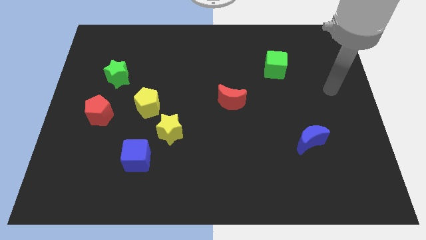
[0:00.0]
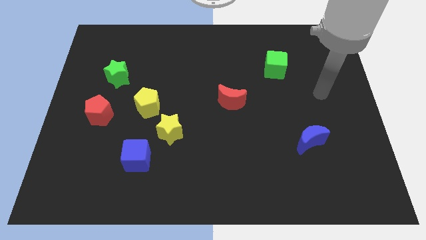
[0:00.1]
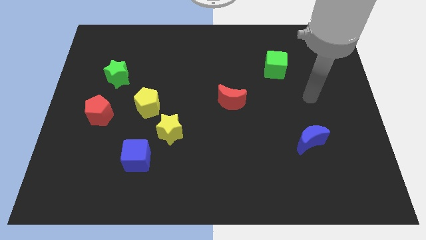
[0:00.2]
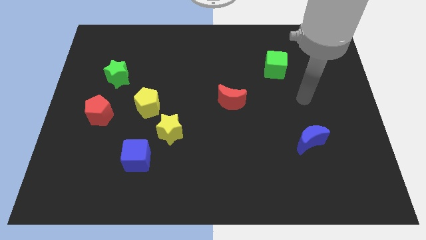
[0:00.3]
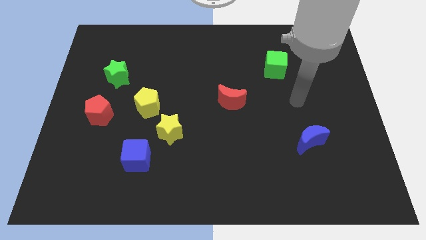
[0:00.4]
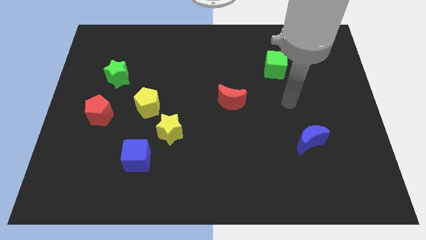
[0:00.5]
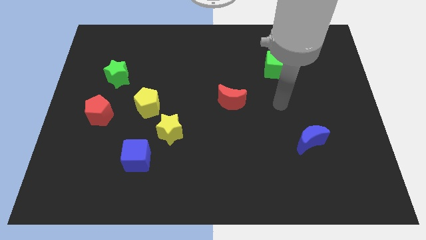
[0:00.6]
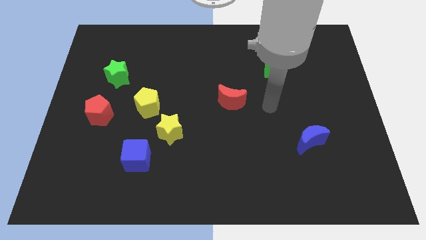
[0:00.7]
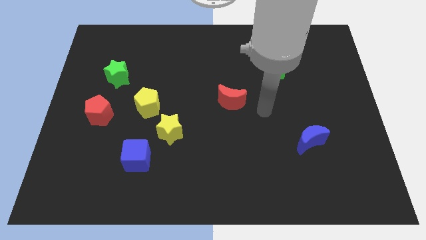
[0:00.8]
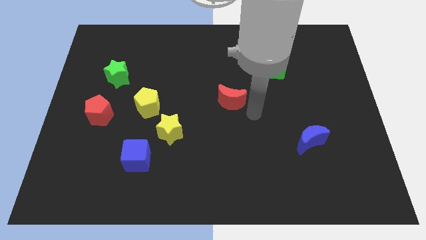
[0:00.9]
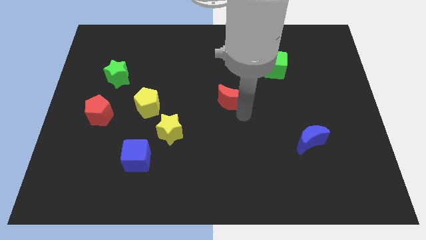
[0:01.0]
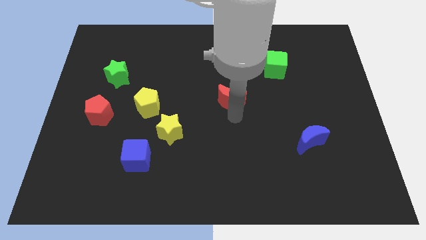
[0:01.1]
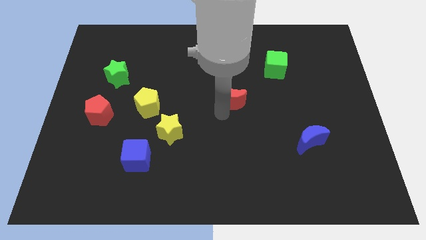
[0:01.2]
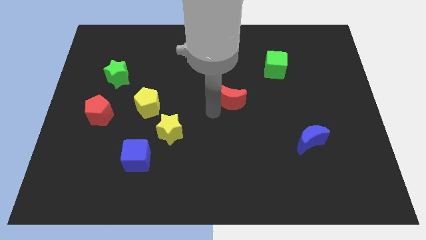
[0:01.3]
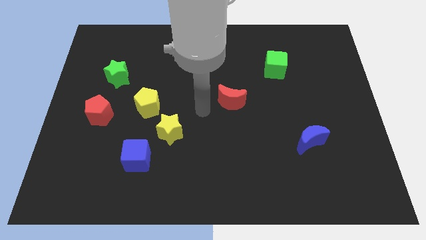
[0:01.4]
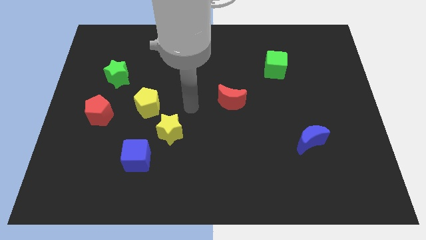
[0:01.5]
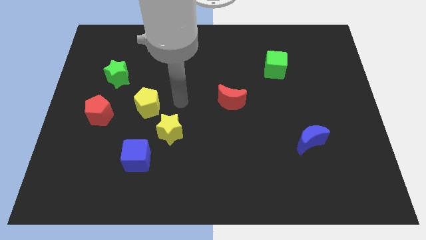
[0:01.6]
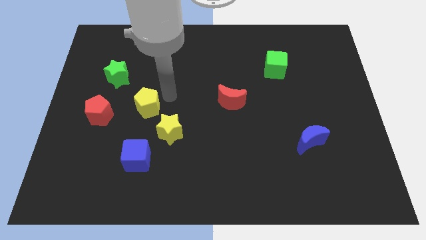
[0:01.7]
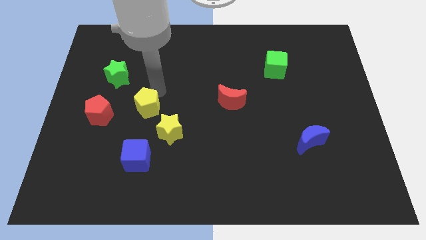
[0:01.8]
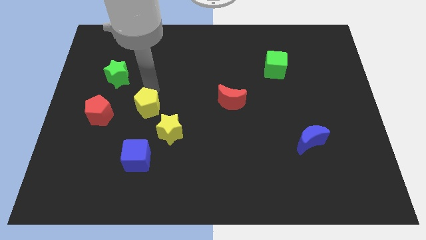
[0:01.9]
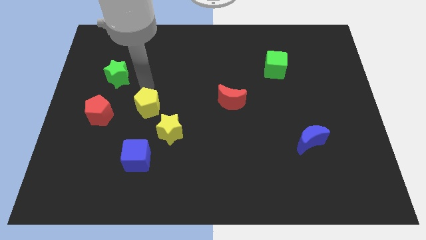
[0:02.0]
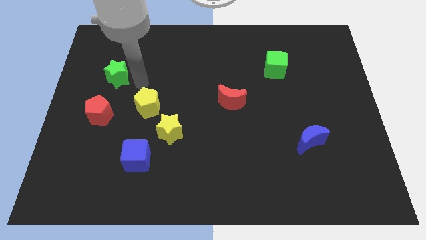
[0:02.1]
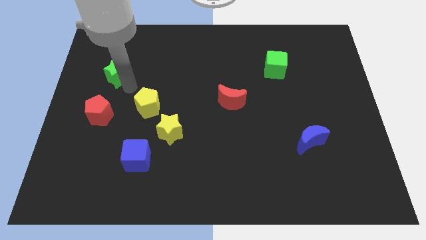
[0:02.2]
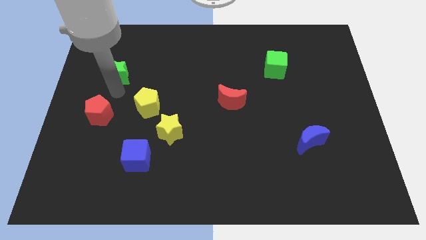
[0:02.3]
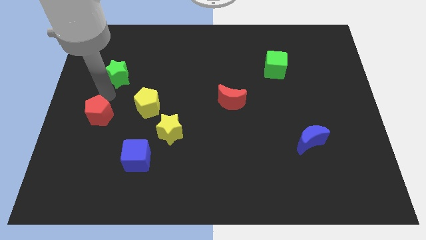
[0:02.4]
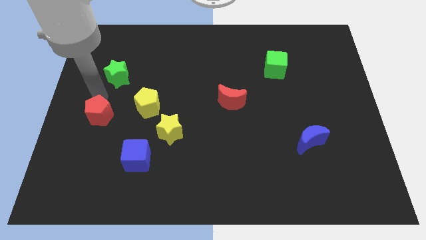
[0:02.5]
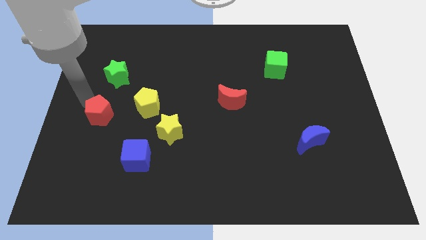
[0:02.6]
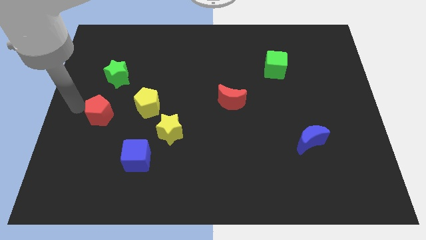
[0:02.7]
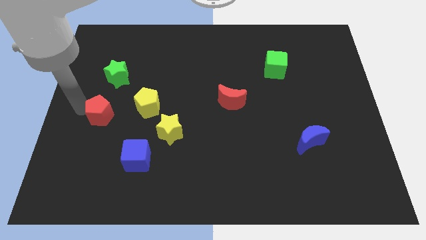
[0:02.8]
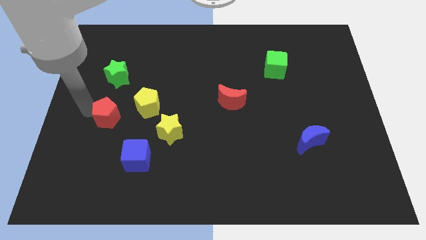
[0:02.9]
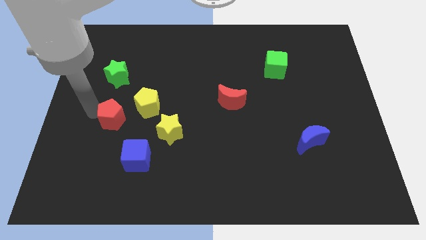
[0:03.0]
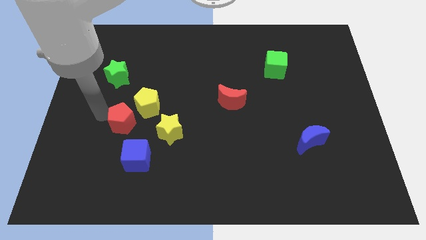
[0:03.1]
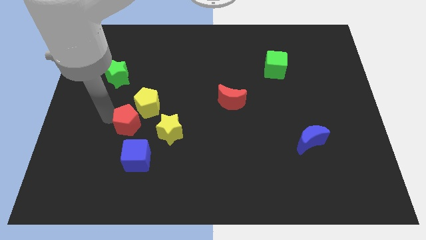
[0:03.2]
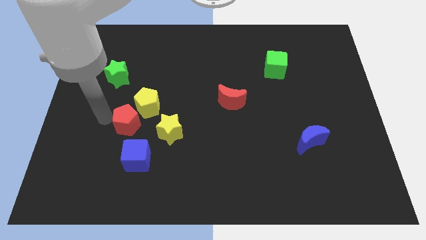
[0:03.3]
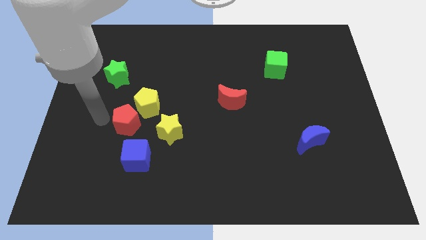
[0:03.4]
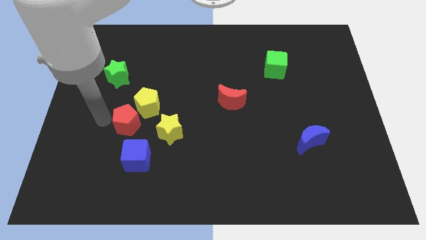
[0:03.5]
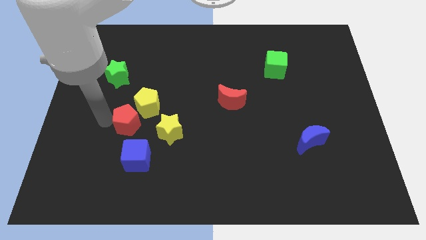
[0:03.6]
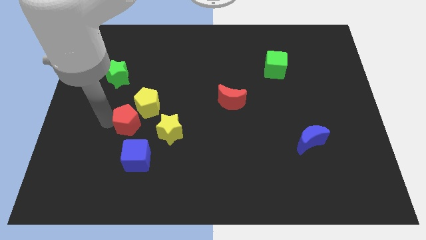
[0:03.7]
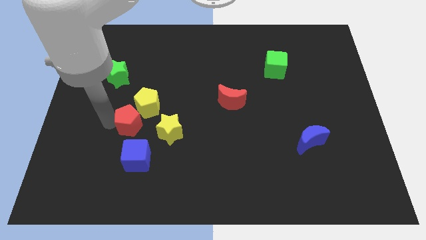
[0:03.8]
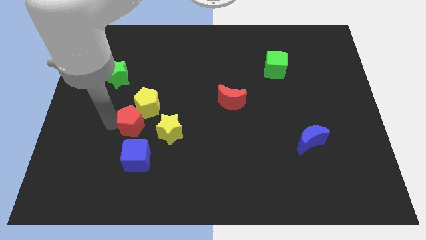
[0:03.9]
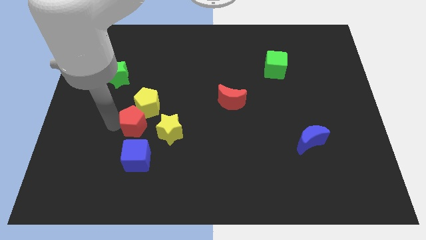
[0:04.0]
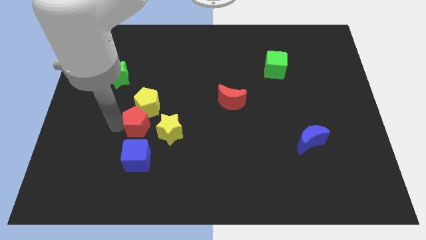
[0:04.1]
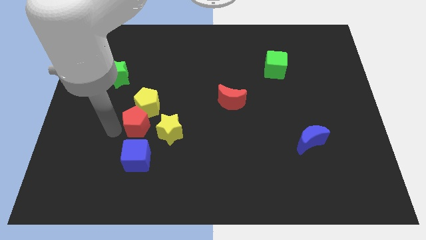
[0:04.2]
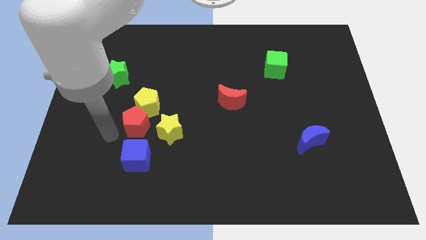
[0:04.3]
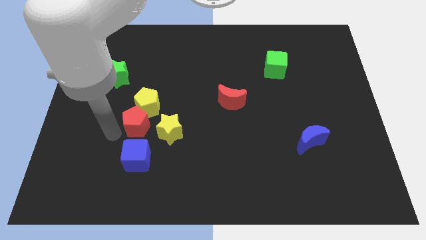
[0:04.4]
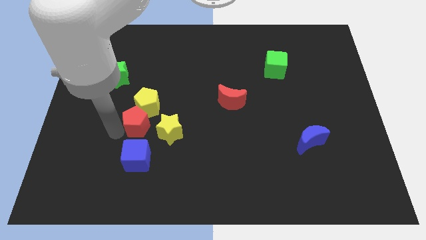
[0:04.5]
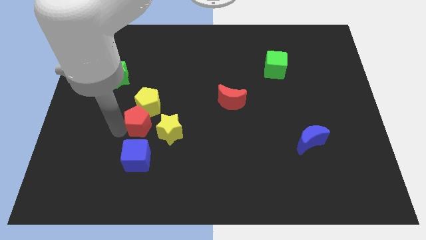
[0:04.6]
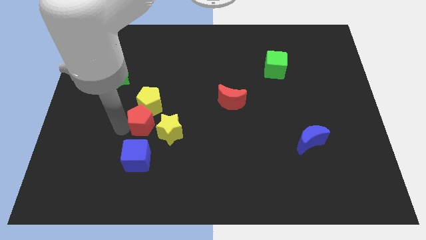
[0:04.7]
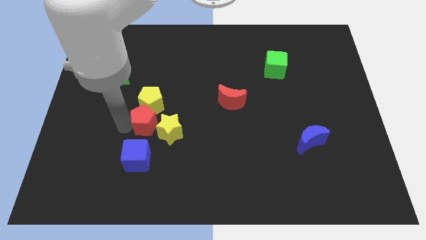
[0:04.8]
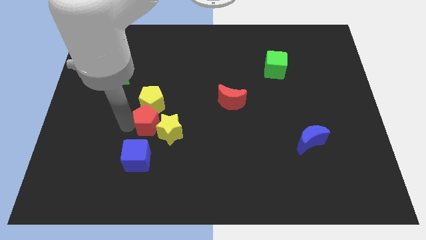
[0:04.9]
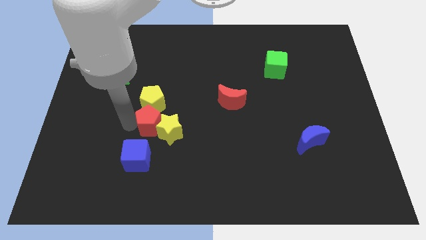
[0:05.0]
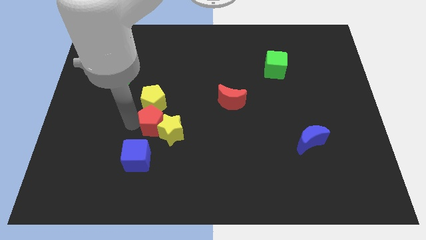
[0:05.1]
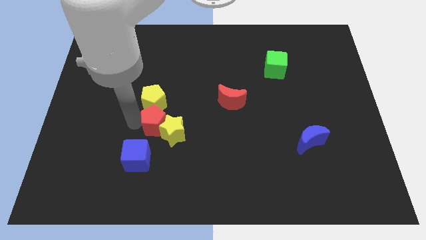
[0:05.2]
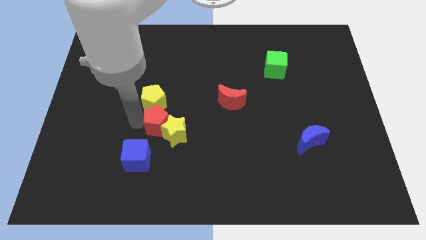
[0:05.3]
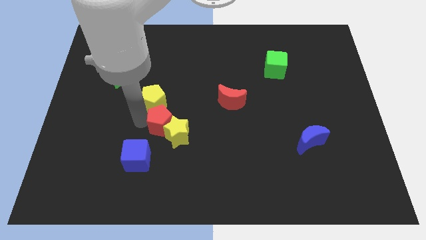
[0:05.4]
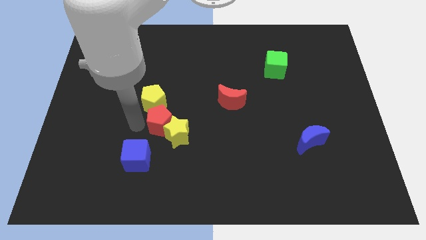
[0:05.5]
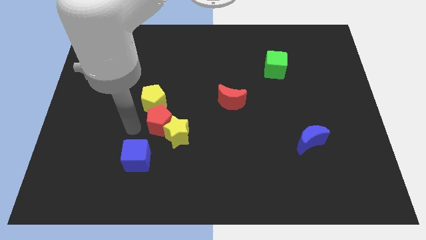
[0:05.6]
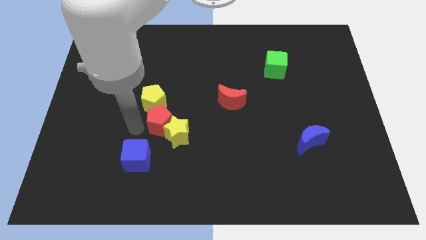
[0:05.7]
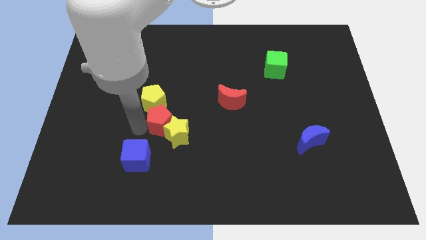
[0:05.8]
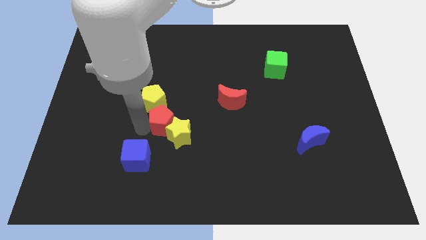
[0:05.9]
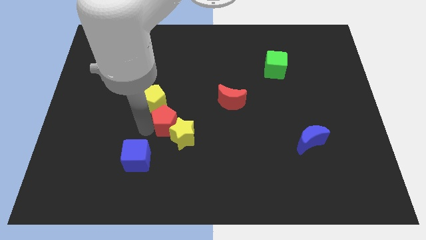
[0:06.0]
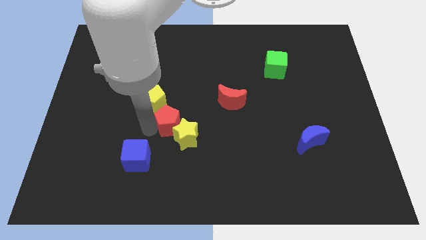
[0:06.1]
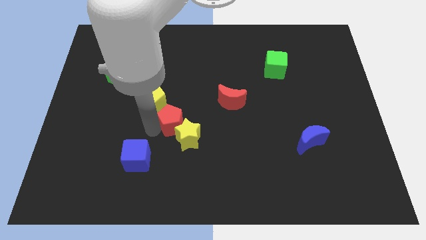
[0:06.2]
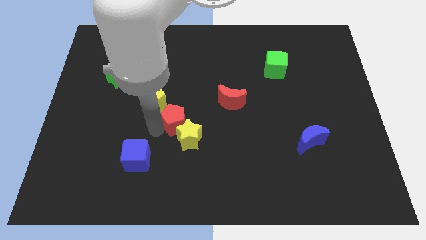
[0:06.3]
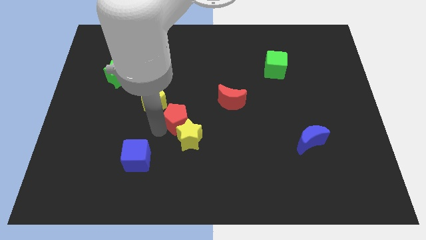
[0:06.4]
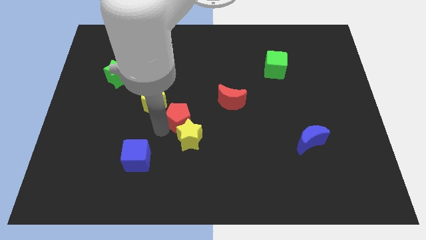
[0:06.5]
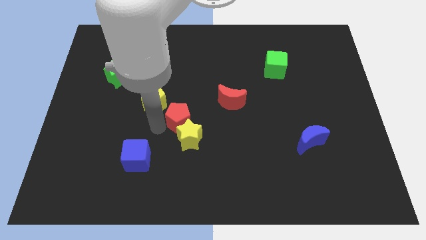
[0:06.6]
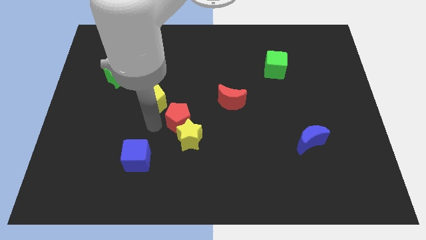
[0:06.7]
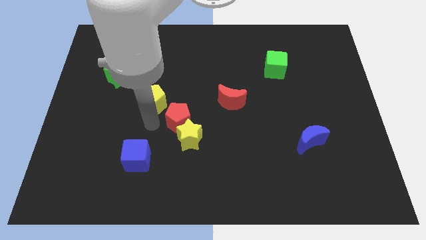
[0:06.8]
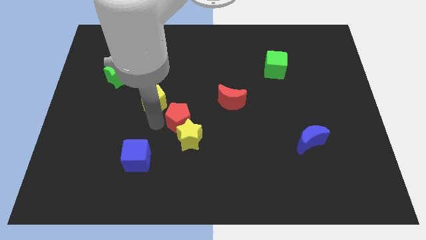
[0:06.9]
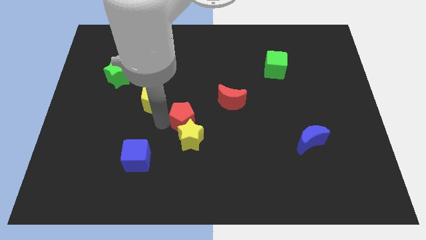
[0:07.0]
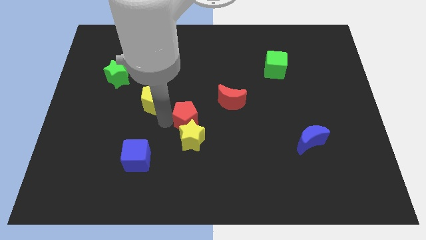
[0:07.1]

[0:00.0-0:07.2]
push the red pentagon to the right

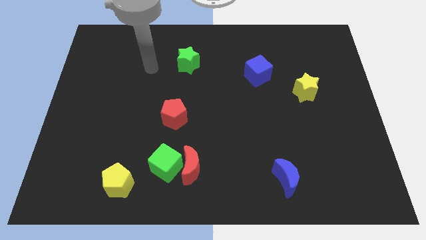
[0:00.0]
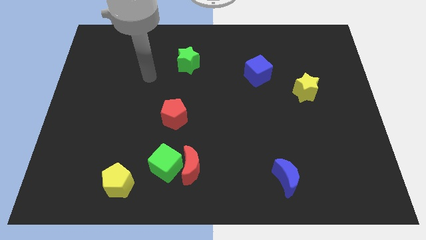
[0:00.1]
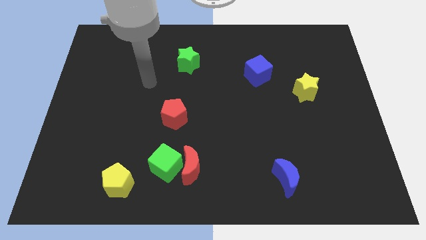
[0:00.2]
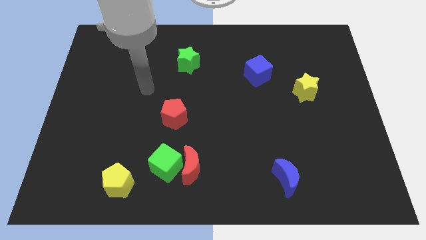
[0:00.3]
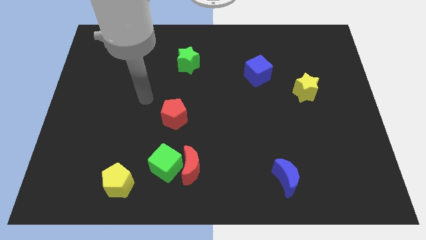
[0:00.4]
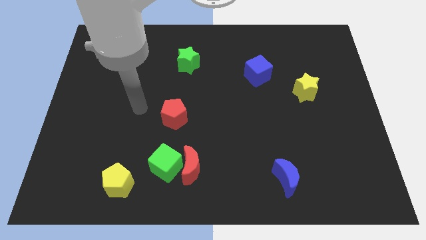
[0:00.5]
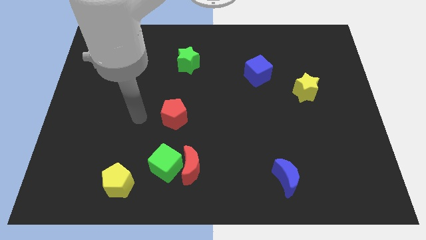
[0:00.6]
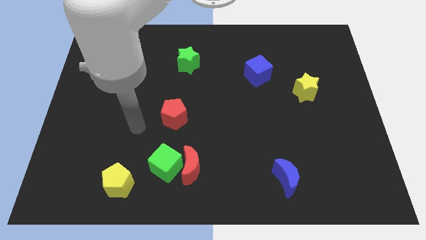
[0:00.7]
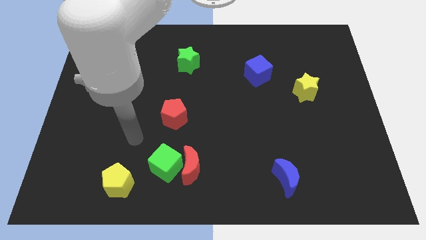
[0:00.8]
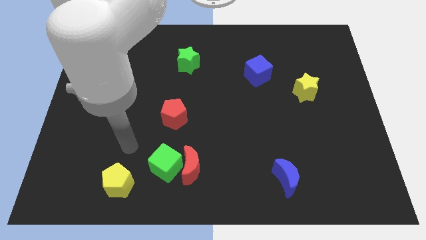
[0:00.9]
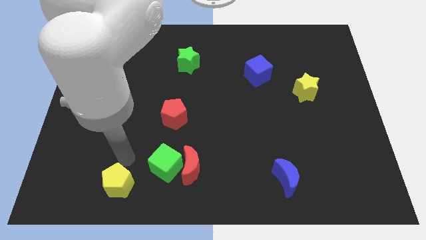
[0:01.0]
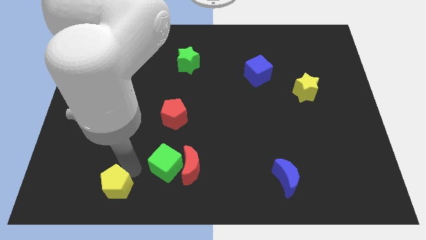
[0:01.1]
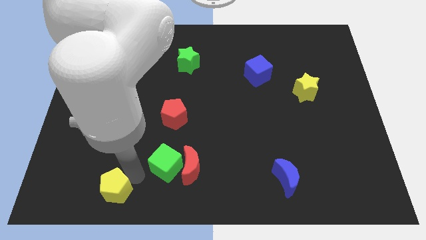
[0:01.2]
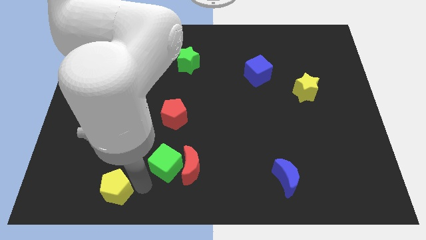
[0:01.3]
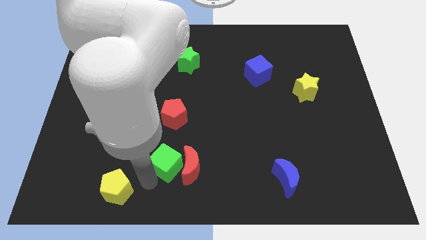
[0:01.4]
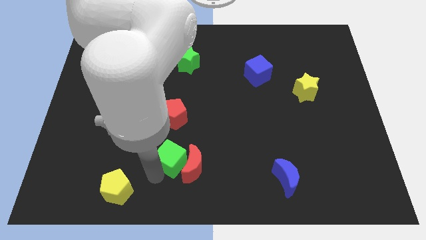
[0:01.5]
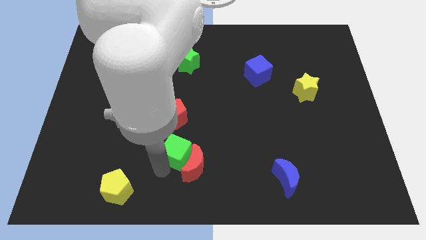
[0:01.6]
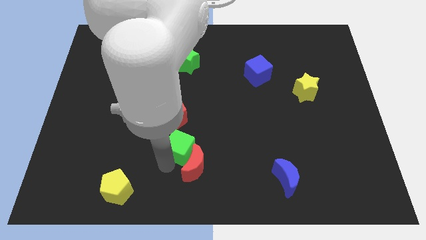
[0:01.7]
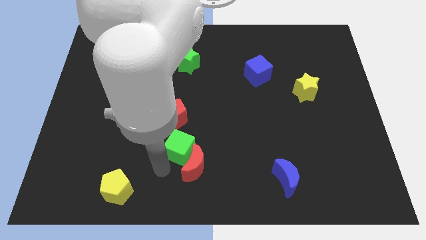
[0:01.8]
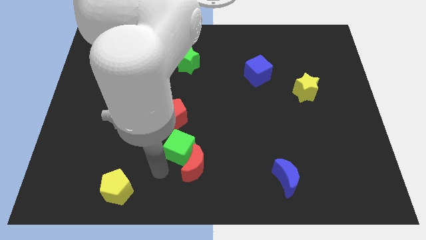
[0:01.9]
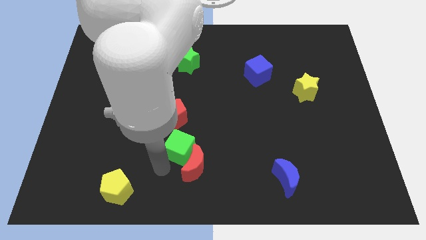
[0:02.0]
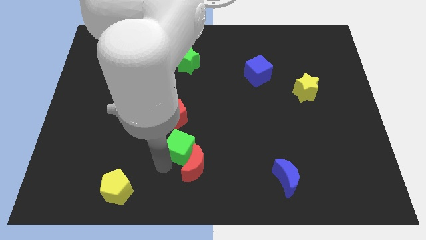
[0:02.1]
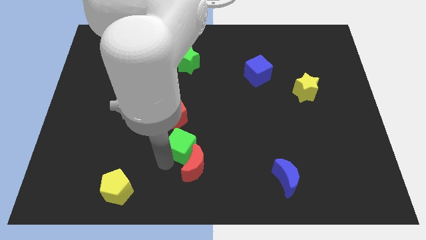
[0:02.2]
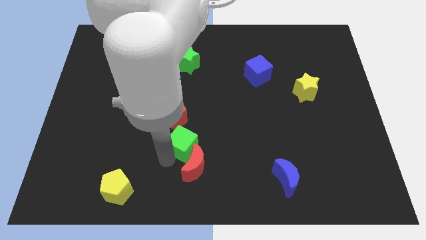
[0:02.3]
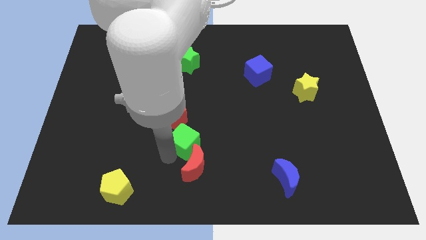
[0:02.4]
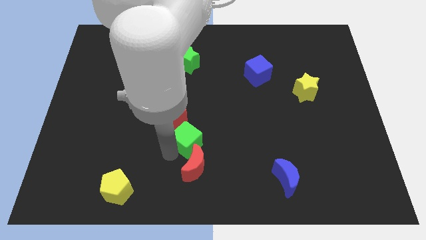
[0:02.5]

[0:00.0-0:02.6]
slightly move the green cube upwards and then to the right
